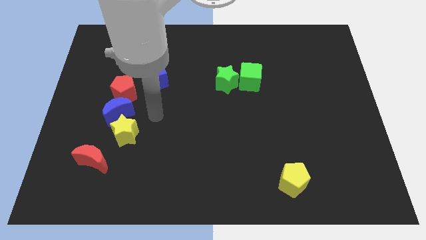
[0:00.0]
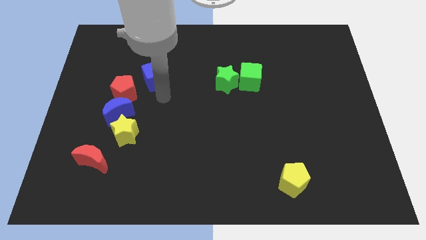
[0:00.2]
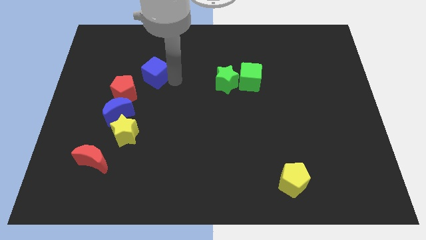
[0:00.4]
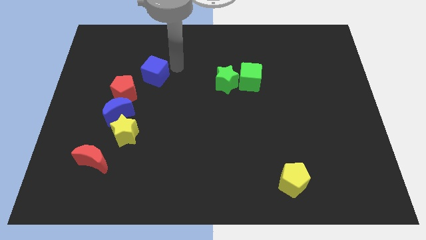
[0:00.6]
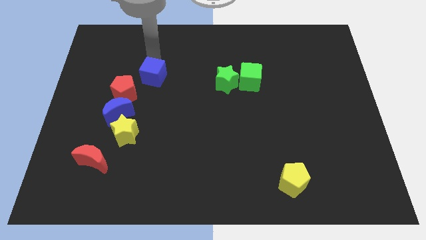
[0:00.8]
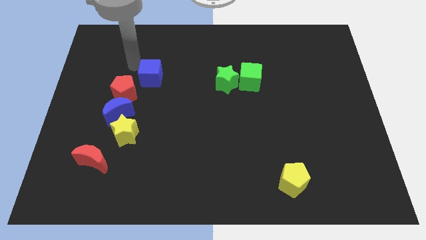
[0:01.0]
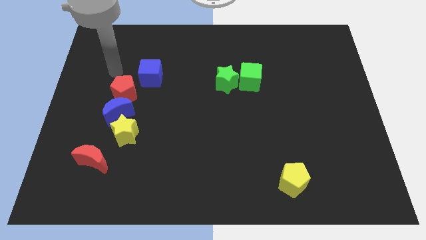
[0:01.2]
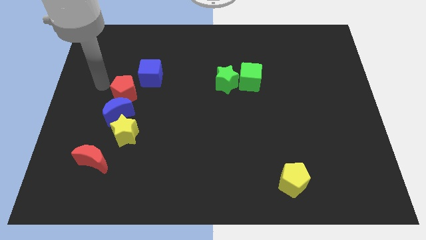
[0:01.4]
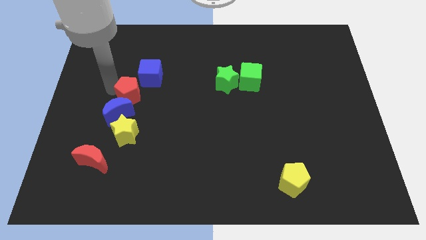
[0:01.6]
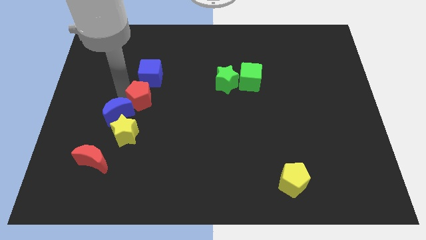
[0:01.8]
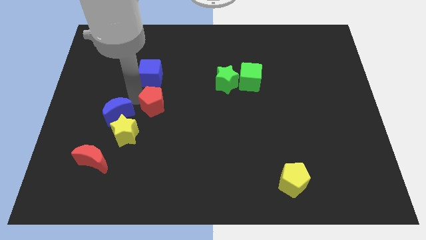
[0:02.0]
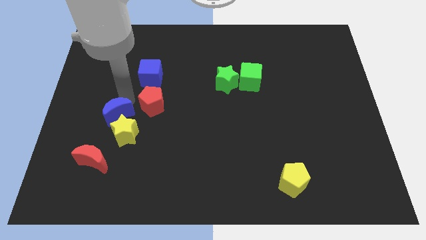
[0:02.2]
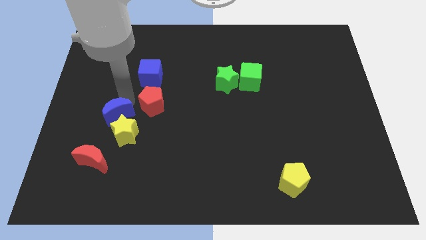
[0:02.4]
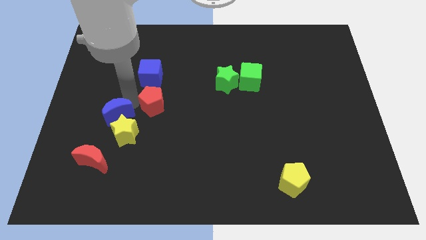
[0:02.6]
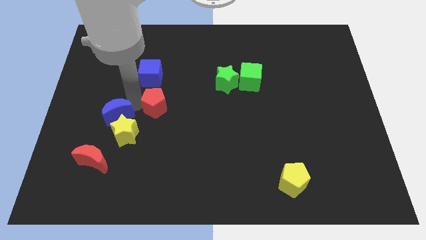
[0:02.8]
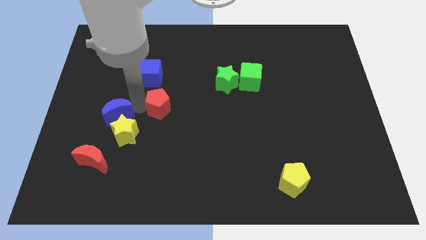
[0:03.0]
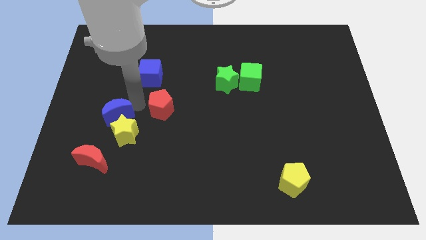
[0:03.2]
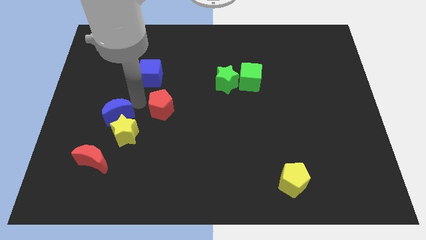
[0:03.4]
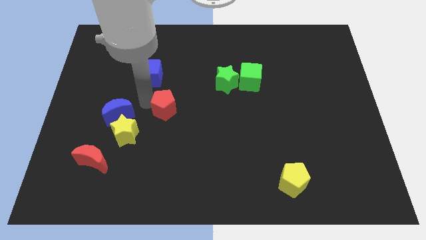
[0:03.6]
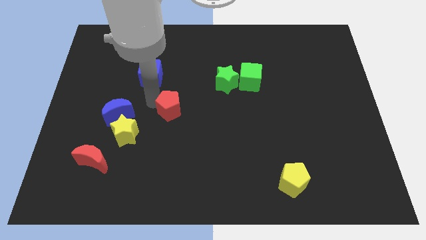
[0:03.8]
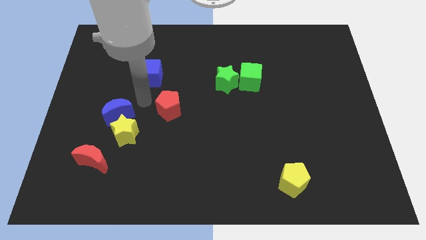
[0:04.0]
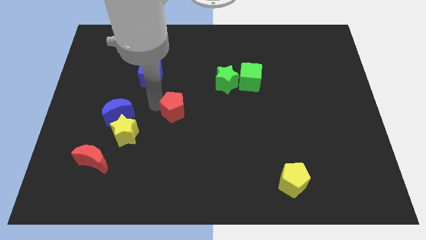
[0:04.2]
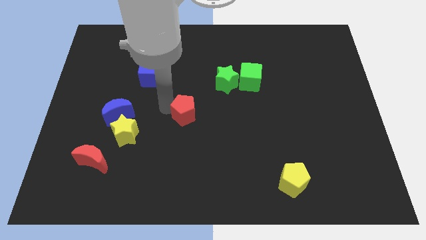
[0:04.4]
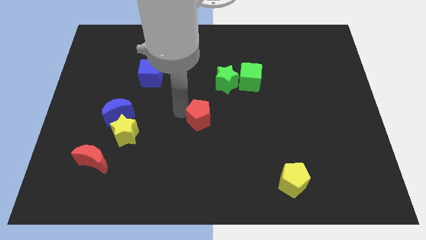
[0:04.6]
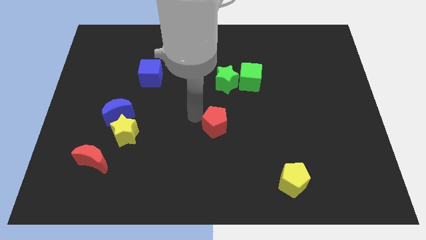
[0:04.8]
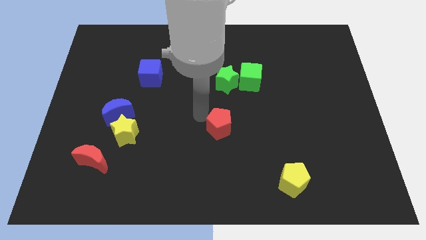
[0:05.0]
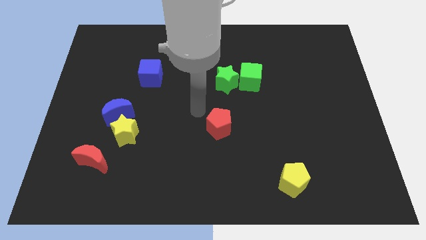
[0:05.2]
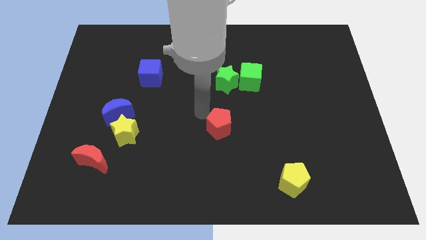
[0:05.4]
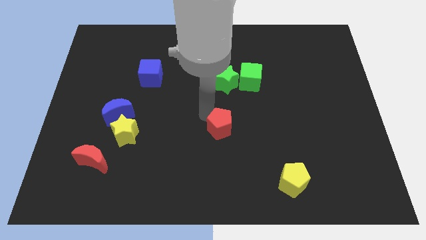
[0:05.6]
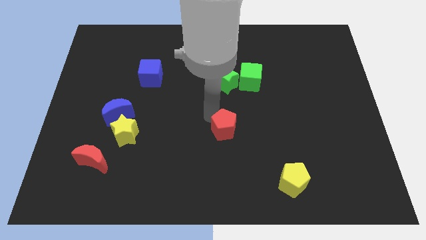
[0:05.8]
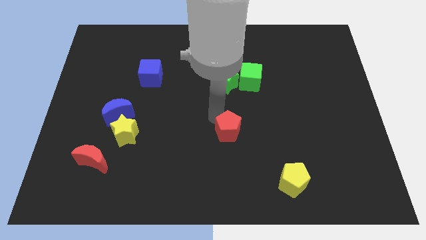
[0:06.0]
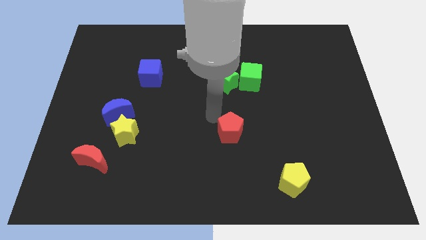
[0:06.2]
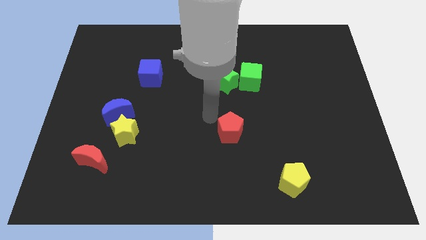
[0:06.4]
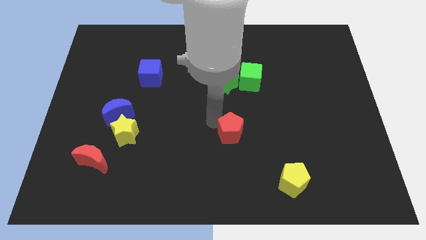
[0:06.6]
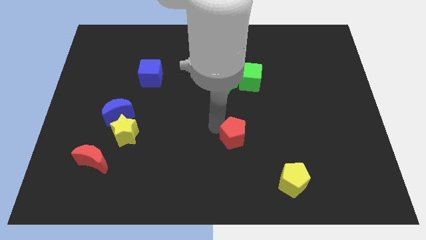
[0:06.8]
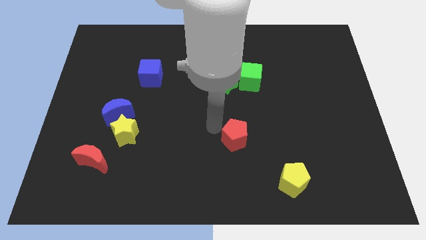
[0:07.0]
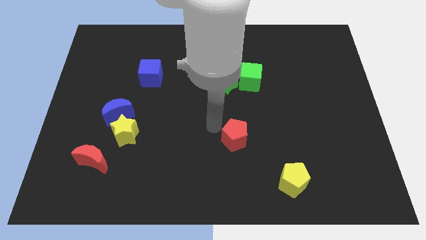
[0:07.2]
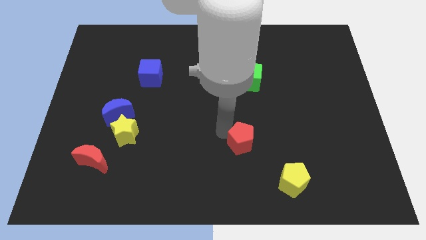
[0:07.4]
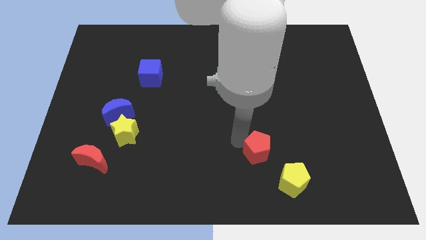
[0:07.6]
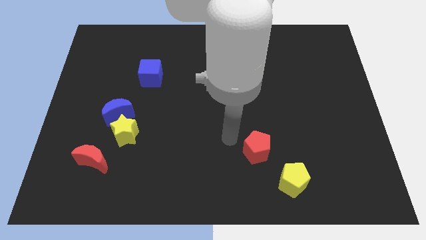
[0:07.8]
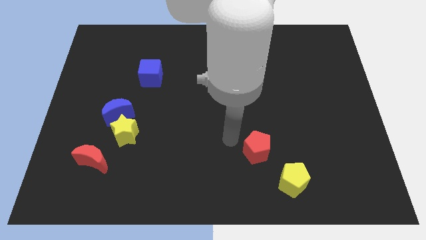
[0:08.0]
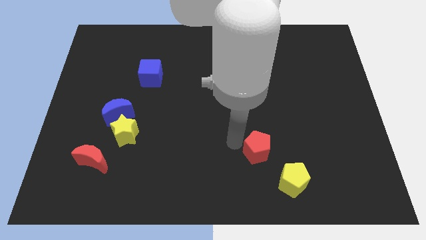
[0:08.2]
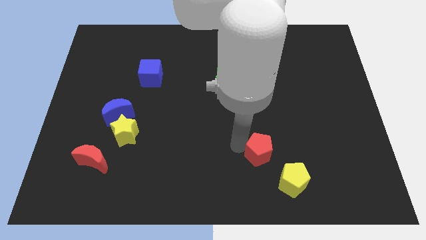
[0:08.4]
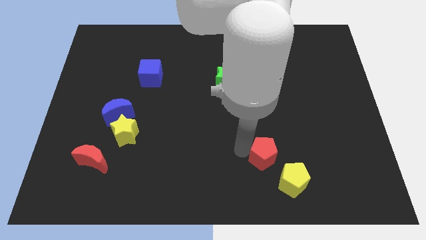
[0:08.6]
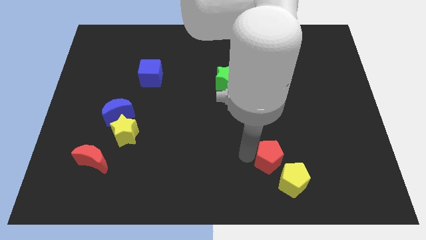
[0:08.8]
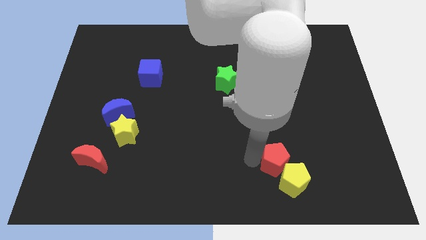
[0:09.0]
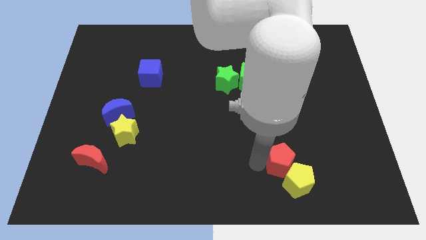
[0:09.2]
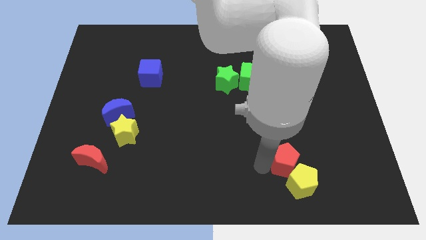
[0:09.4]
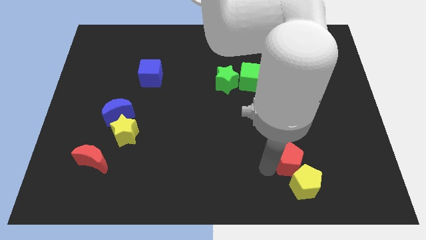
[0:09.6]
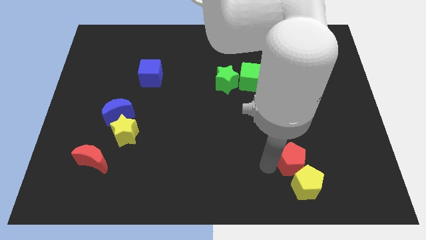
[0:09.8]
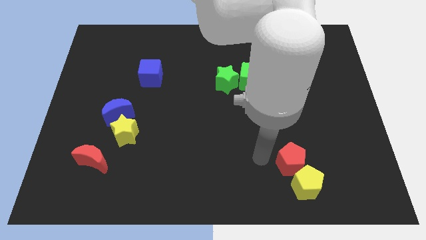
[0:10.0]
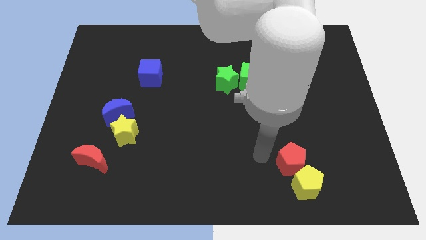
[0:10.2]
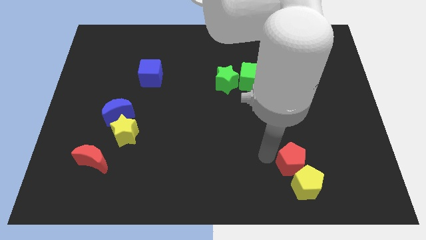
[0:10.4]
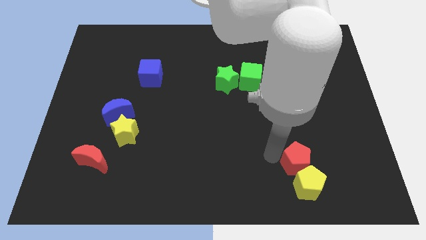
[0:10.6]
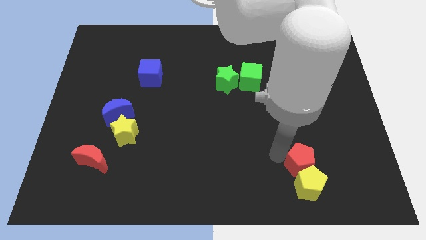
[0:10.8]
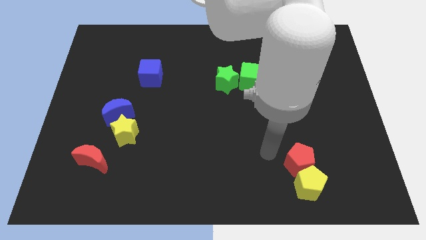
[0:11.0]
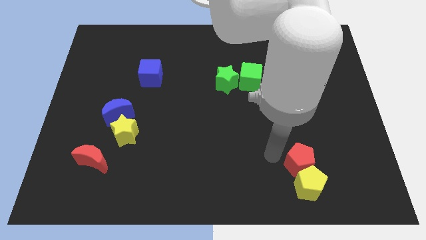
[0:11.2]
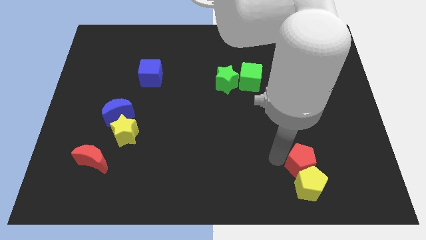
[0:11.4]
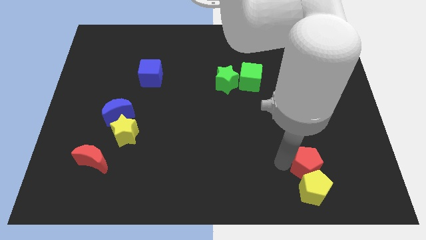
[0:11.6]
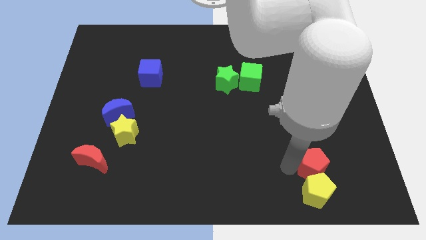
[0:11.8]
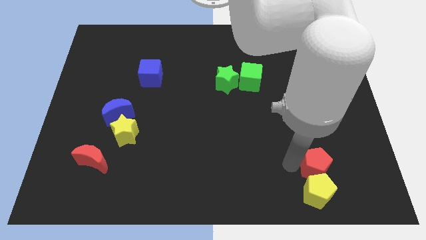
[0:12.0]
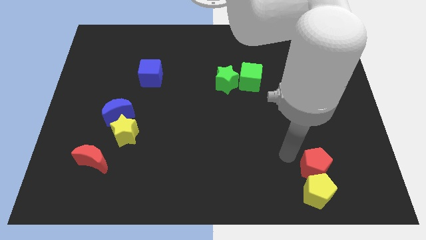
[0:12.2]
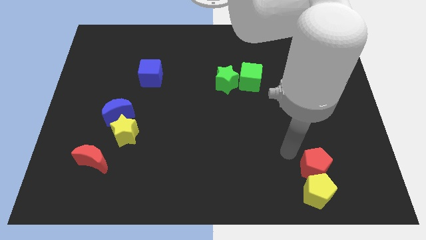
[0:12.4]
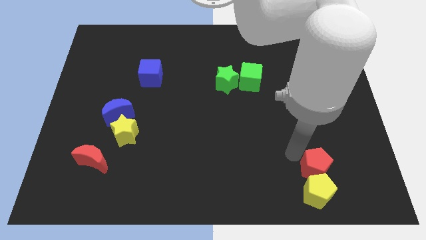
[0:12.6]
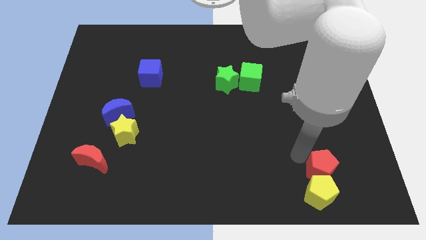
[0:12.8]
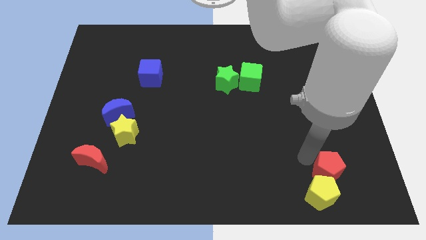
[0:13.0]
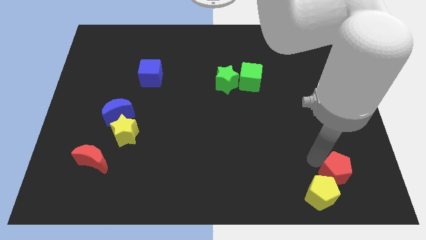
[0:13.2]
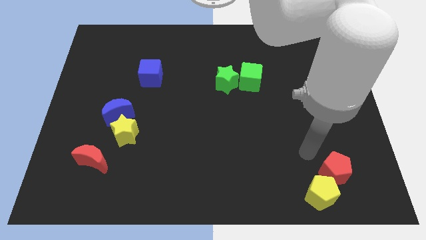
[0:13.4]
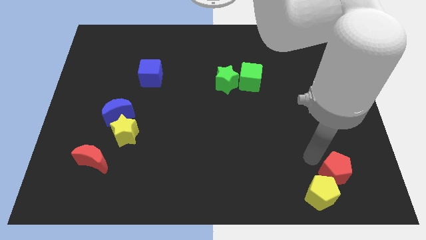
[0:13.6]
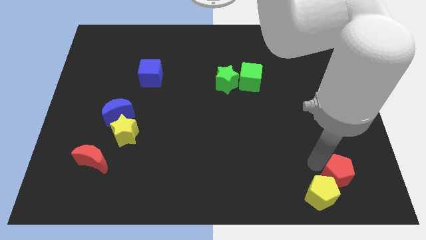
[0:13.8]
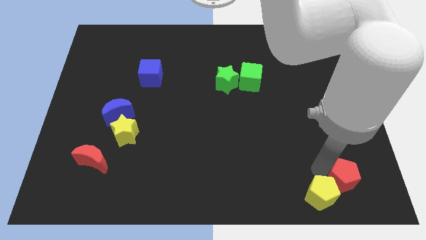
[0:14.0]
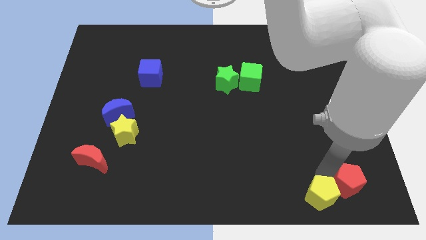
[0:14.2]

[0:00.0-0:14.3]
move the red pentagon to the bottom right corner
